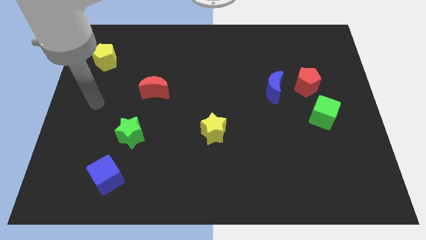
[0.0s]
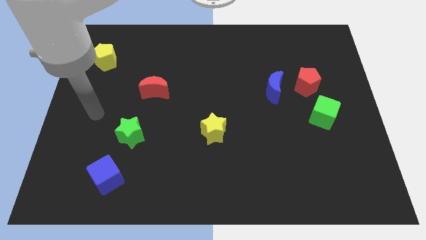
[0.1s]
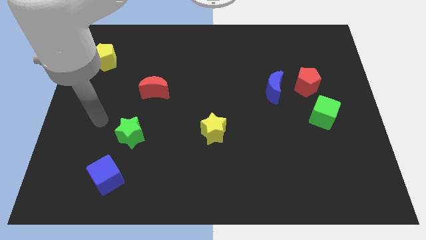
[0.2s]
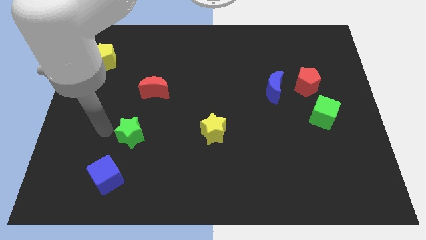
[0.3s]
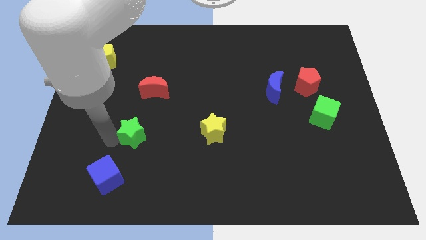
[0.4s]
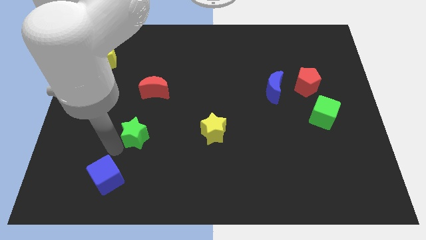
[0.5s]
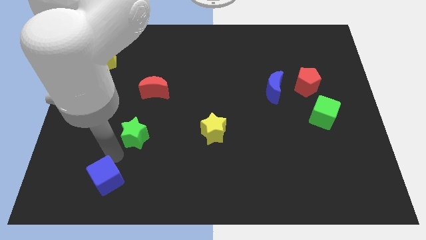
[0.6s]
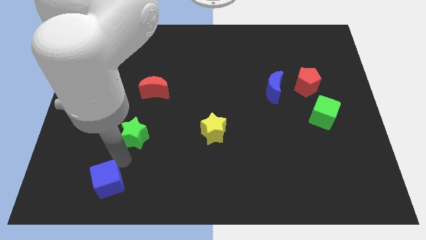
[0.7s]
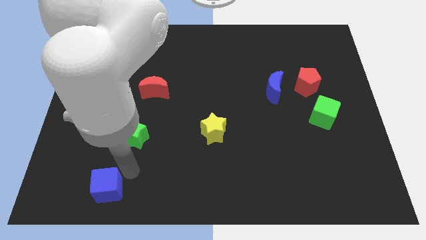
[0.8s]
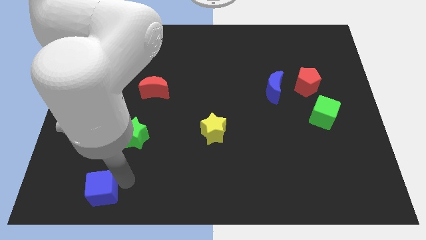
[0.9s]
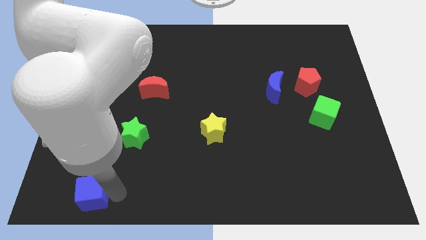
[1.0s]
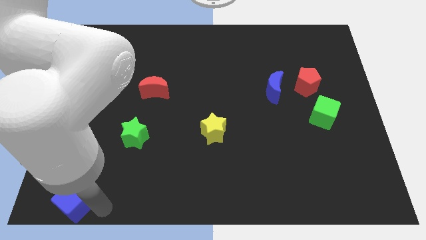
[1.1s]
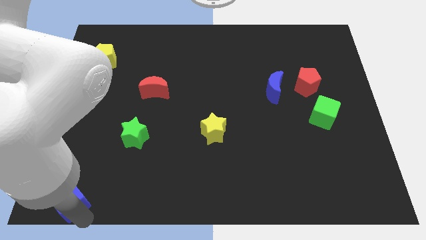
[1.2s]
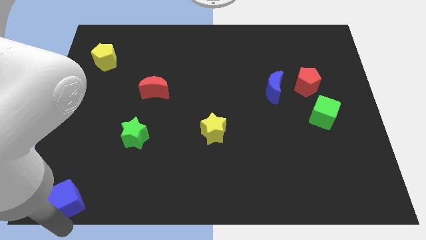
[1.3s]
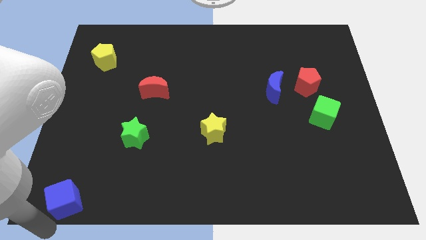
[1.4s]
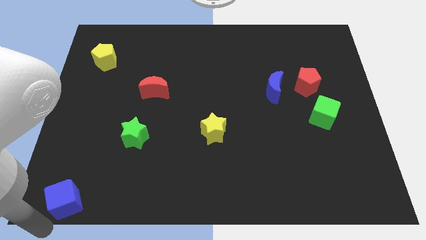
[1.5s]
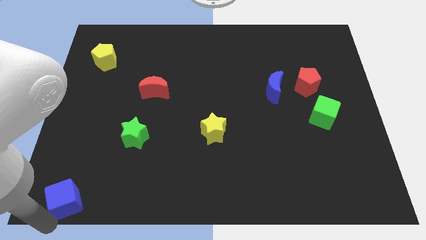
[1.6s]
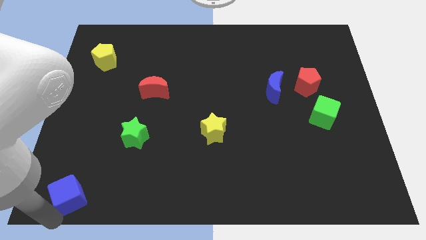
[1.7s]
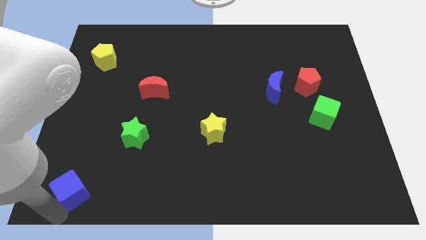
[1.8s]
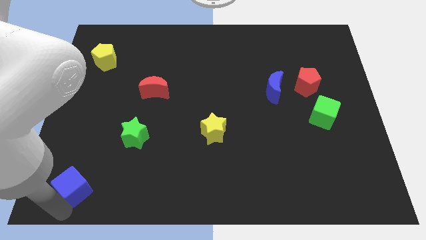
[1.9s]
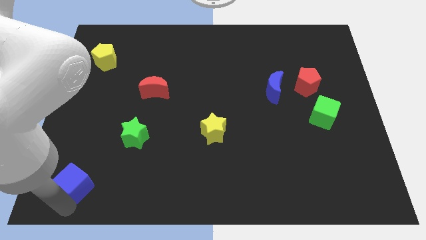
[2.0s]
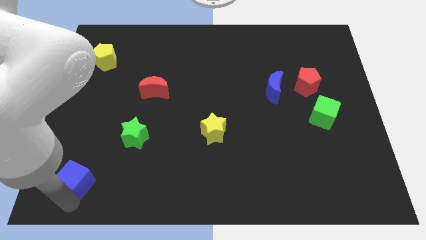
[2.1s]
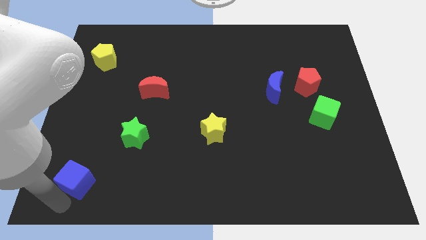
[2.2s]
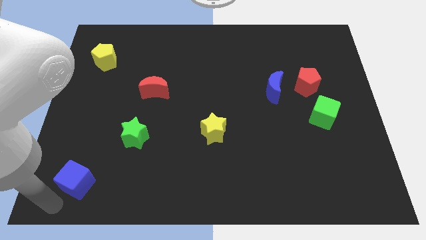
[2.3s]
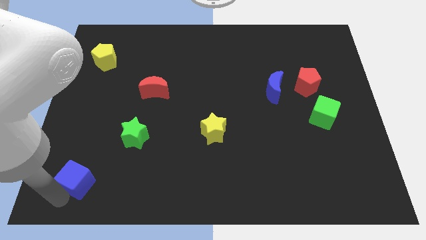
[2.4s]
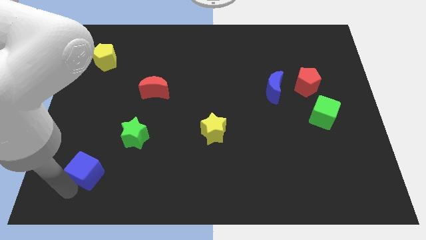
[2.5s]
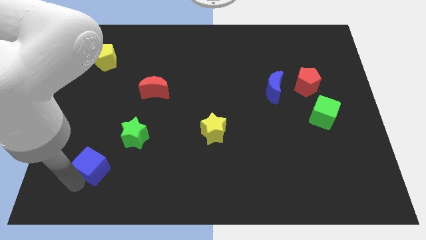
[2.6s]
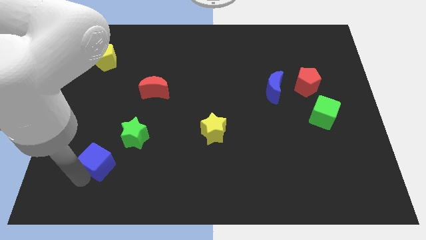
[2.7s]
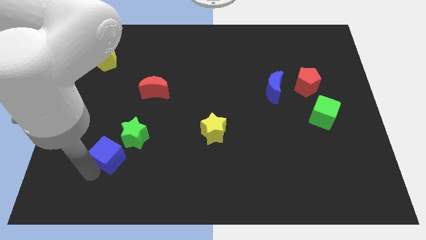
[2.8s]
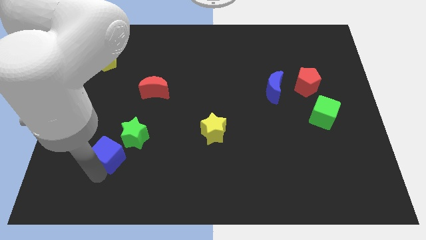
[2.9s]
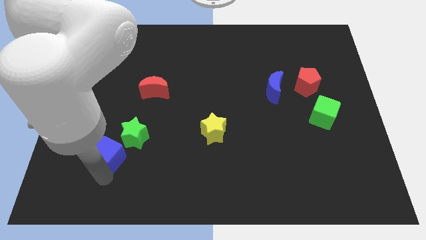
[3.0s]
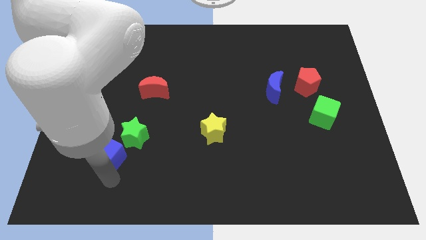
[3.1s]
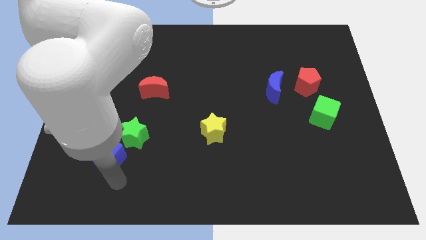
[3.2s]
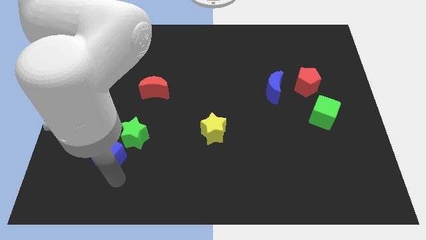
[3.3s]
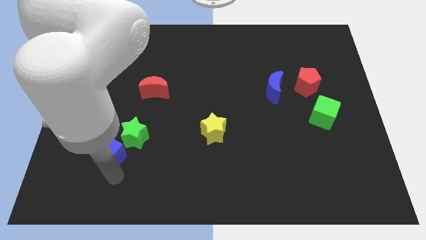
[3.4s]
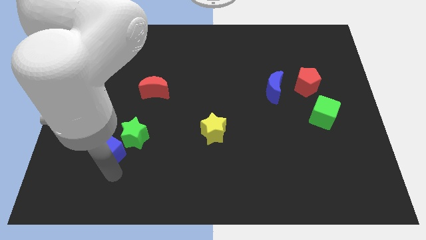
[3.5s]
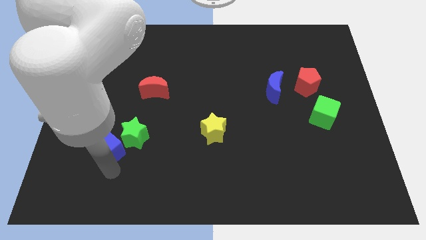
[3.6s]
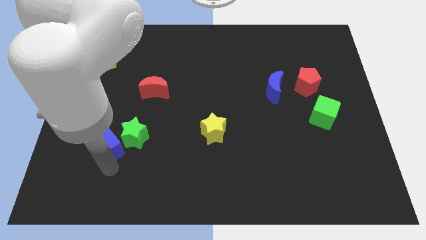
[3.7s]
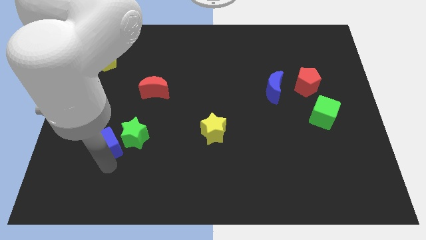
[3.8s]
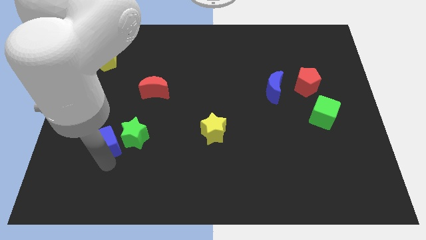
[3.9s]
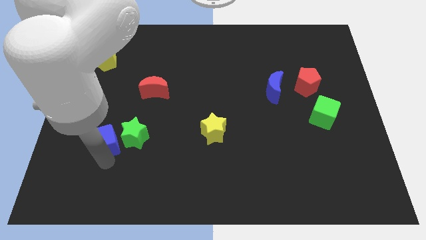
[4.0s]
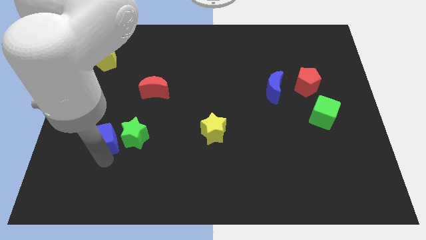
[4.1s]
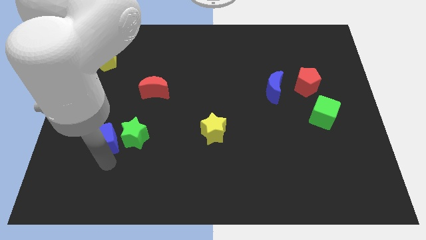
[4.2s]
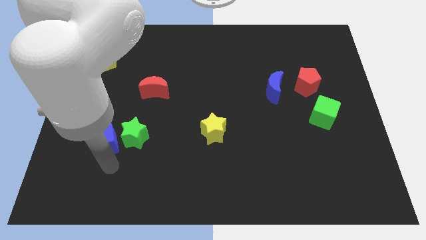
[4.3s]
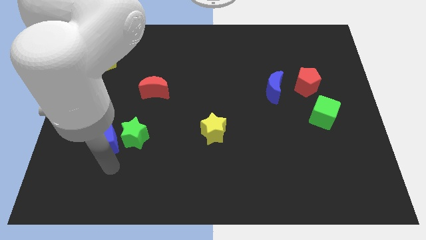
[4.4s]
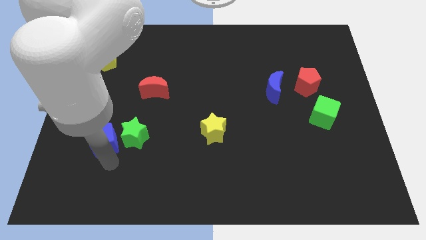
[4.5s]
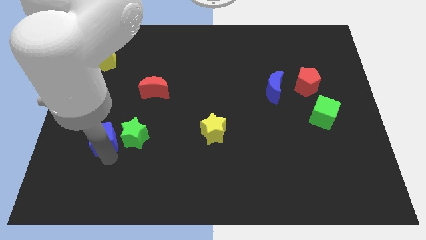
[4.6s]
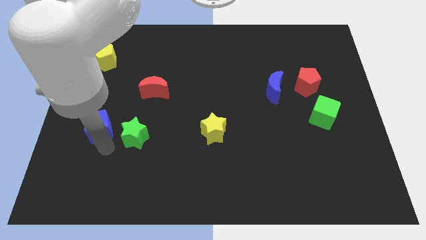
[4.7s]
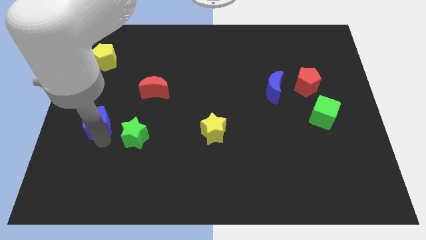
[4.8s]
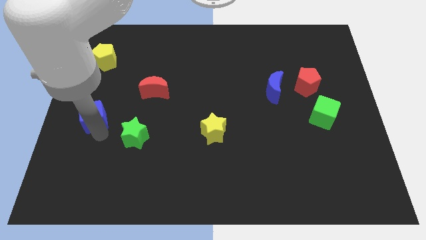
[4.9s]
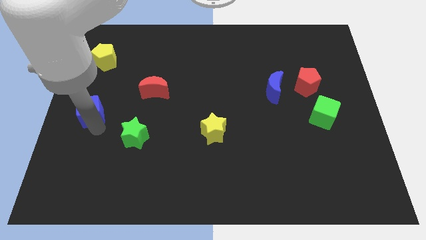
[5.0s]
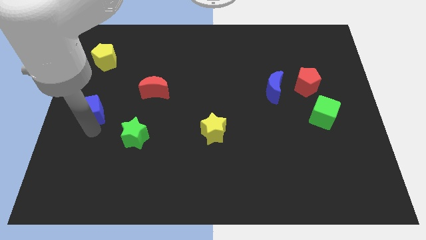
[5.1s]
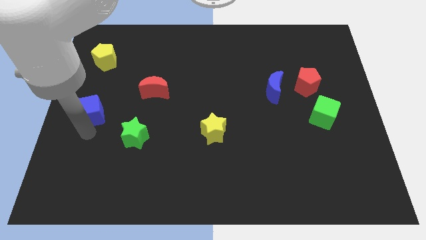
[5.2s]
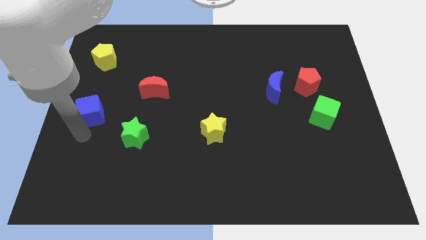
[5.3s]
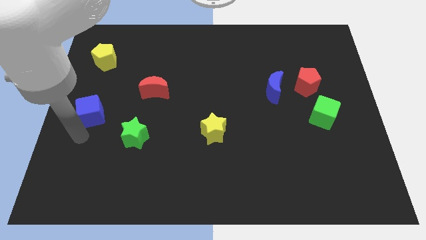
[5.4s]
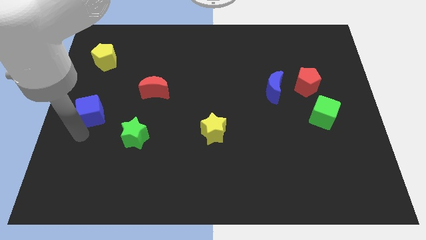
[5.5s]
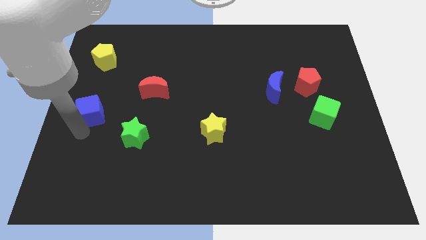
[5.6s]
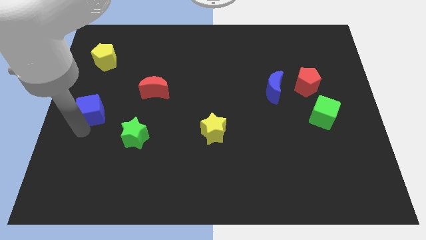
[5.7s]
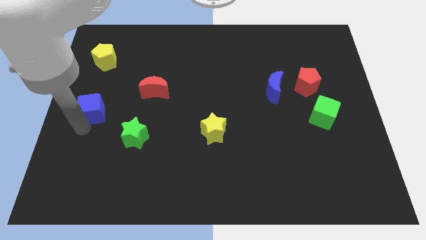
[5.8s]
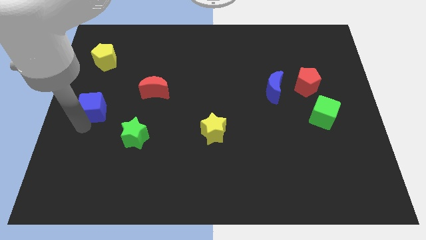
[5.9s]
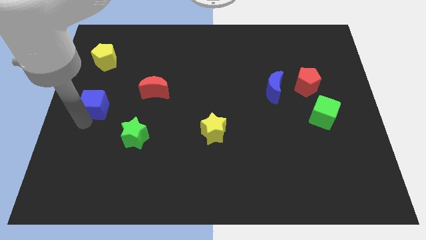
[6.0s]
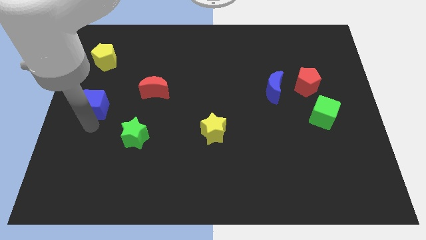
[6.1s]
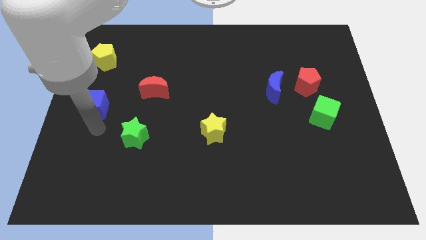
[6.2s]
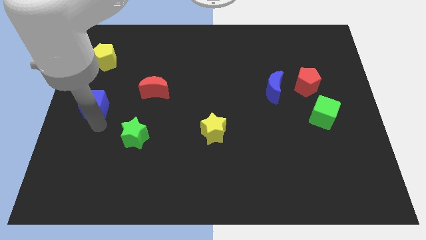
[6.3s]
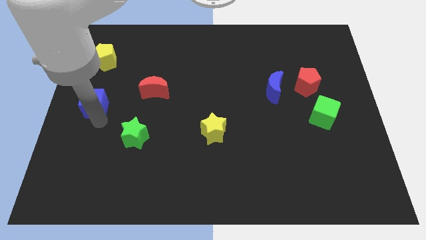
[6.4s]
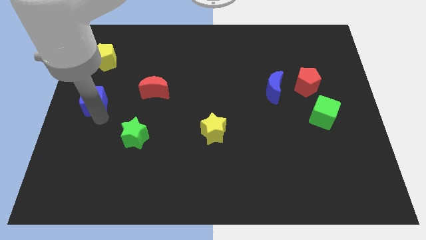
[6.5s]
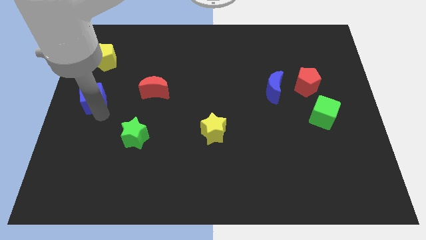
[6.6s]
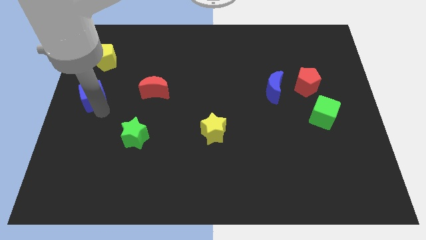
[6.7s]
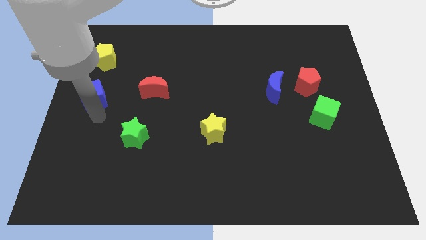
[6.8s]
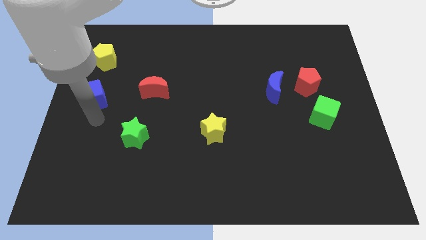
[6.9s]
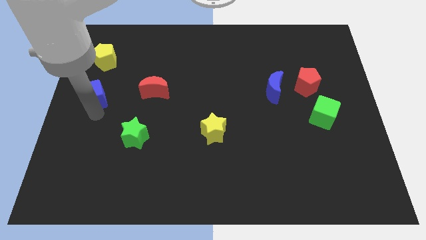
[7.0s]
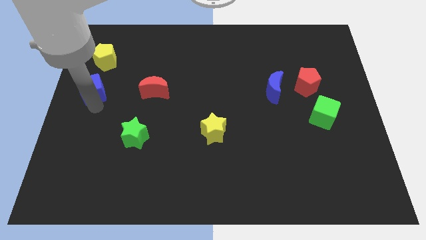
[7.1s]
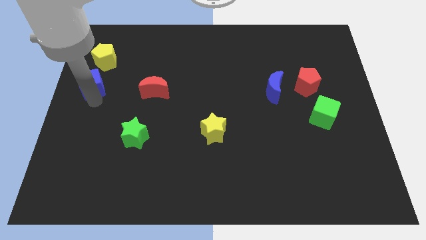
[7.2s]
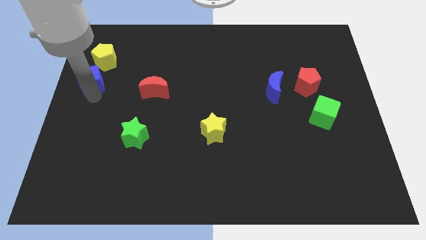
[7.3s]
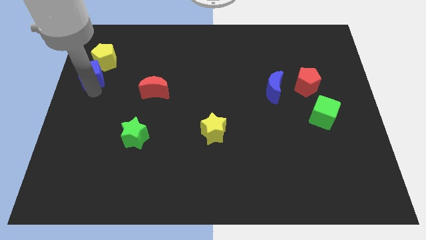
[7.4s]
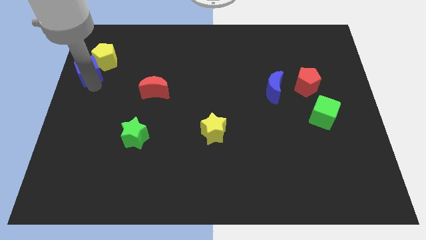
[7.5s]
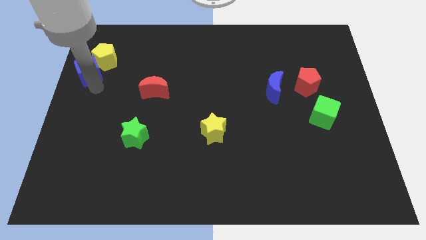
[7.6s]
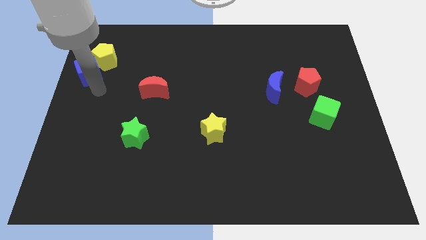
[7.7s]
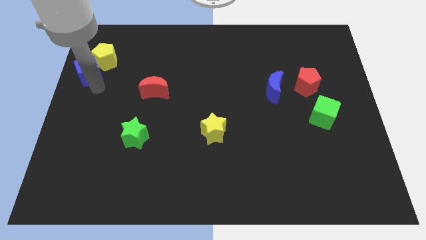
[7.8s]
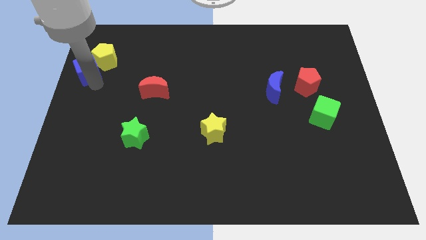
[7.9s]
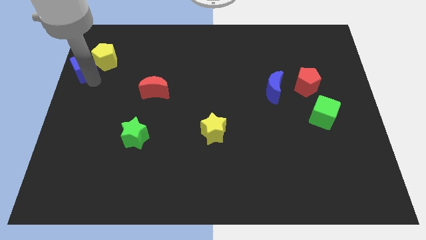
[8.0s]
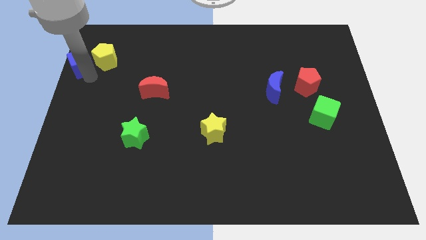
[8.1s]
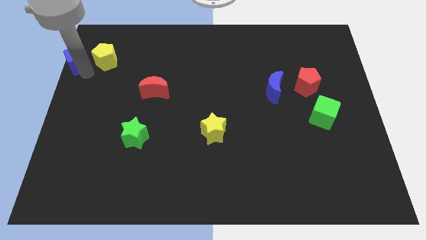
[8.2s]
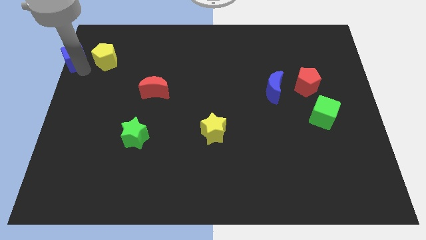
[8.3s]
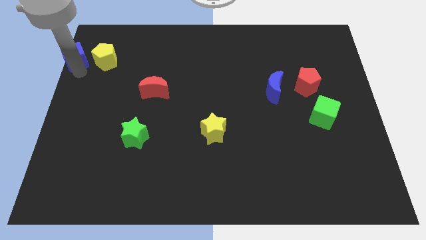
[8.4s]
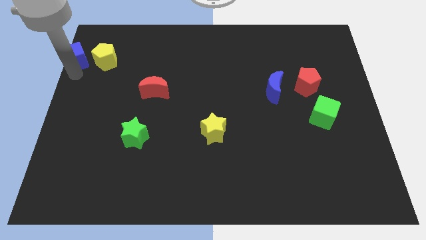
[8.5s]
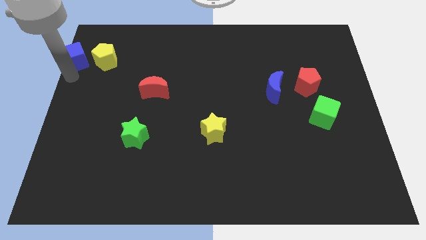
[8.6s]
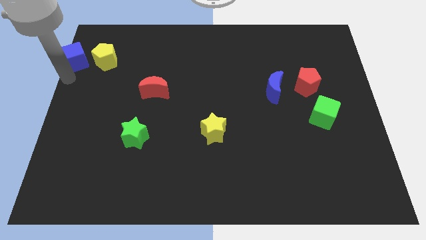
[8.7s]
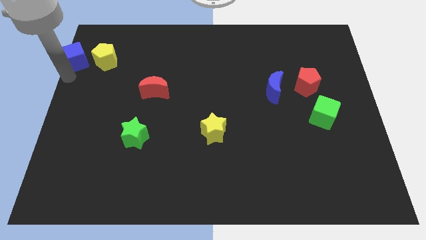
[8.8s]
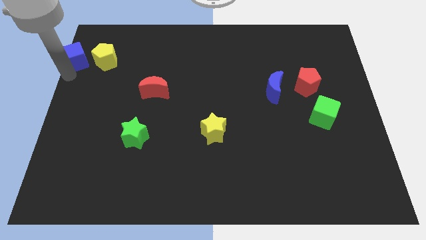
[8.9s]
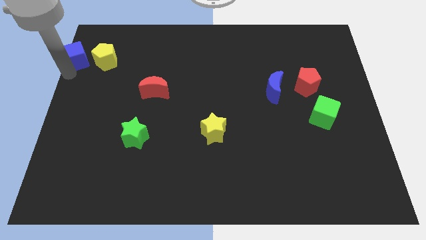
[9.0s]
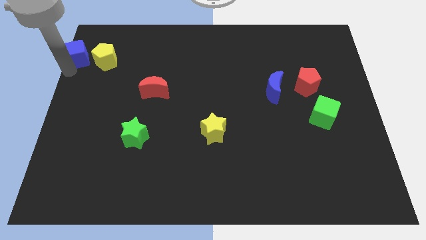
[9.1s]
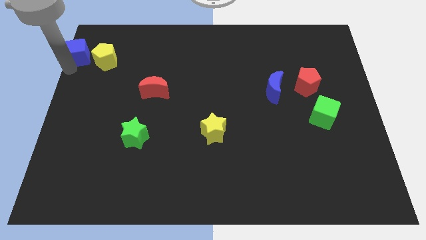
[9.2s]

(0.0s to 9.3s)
move the blue cube to the upper left corner
